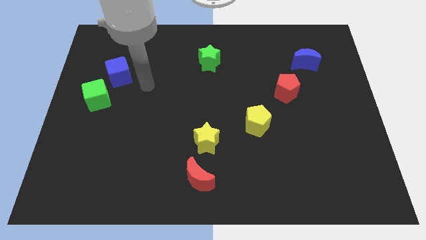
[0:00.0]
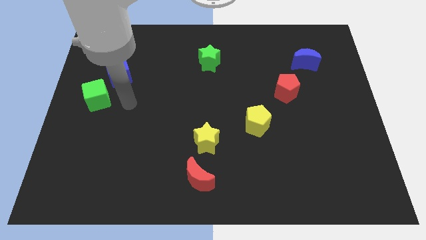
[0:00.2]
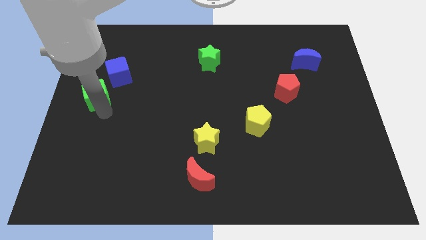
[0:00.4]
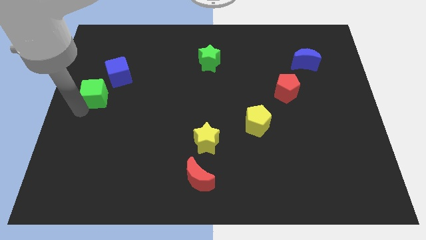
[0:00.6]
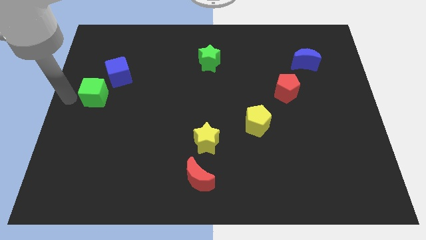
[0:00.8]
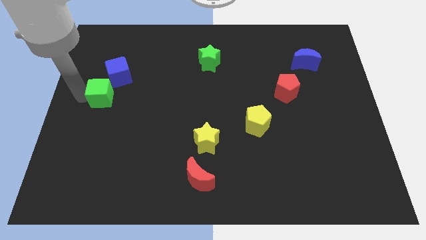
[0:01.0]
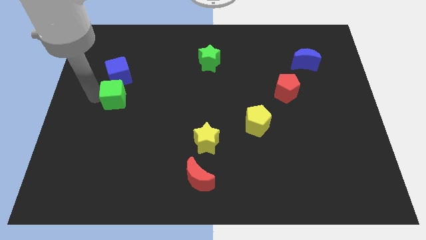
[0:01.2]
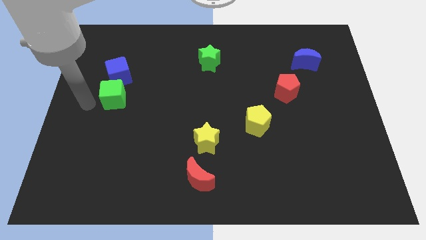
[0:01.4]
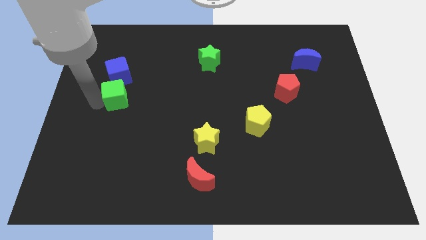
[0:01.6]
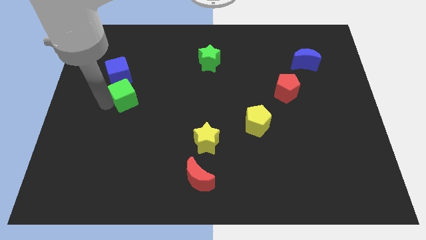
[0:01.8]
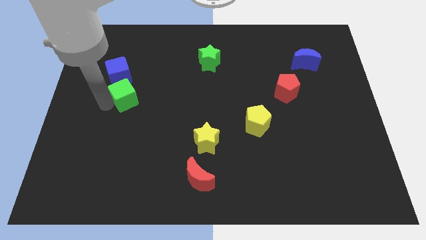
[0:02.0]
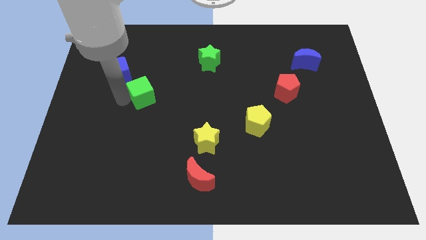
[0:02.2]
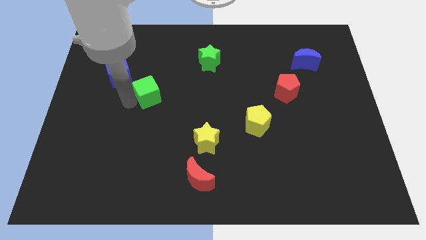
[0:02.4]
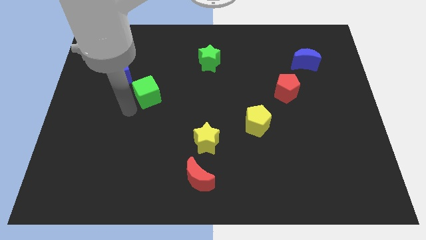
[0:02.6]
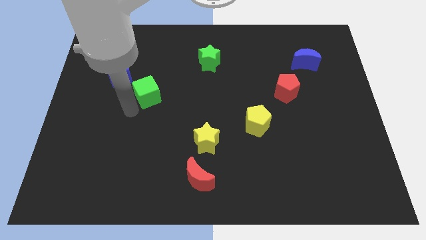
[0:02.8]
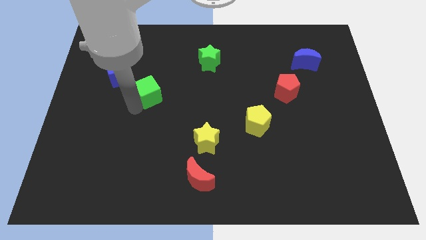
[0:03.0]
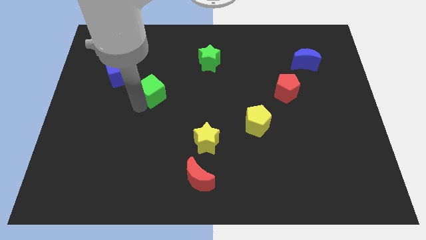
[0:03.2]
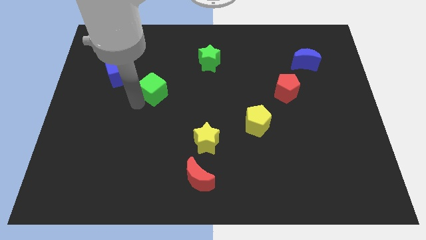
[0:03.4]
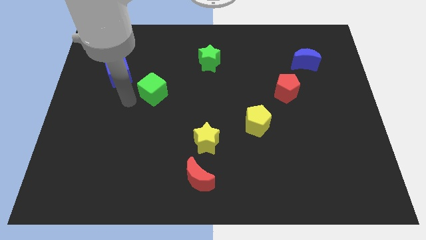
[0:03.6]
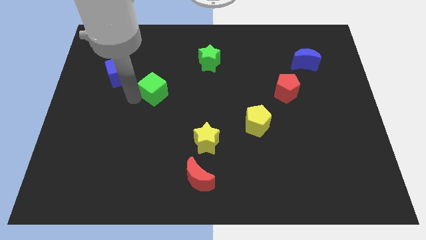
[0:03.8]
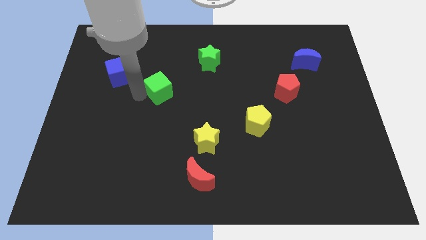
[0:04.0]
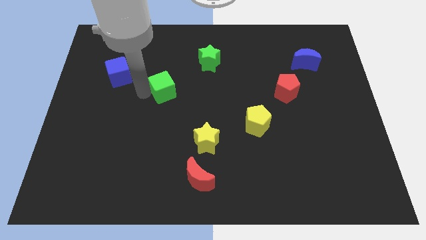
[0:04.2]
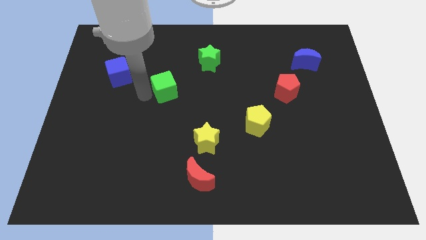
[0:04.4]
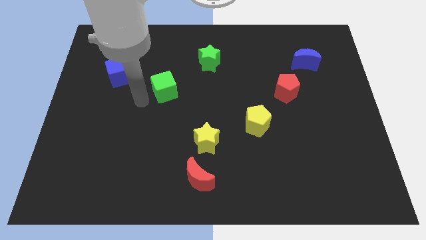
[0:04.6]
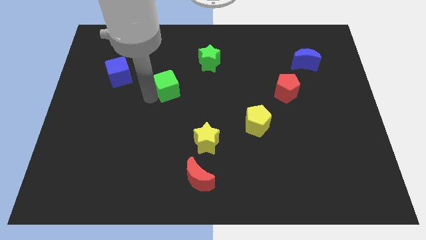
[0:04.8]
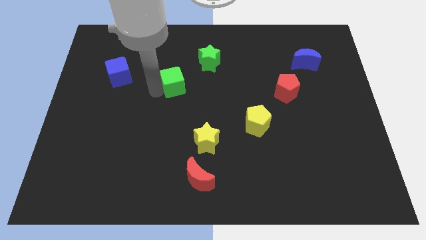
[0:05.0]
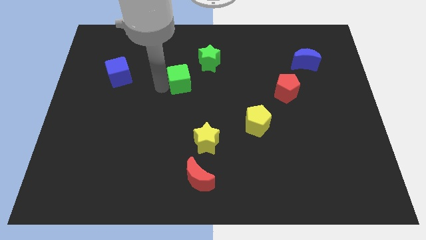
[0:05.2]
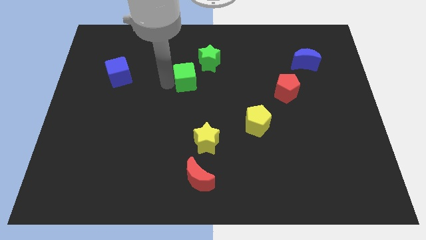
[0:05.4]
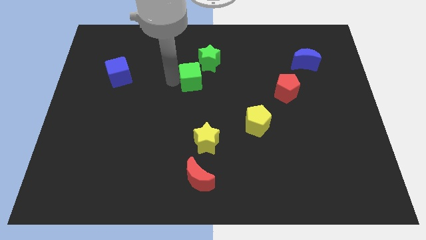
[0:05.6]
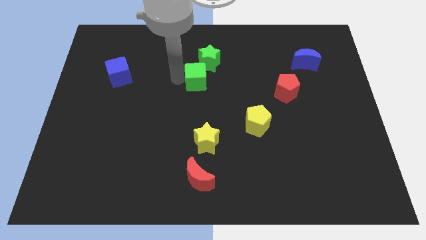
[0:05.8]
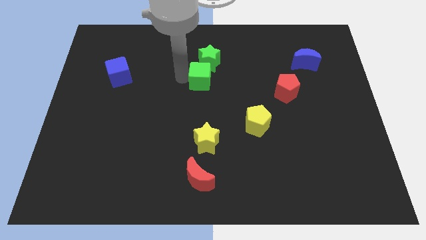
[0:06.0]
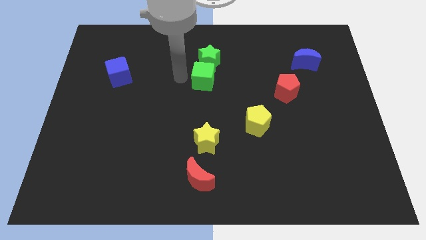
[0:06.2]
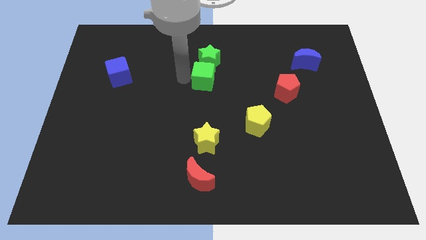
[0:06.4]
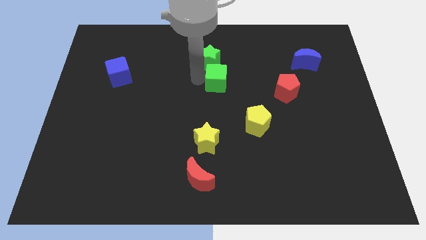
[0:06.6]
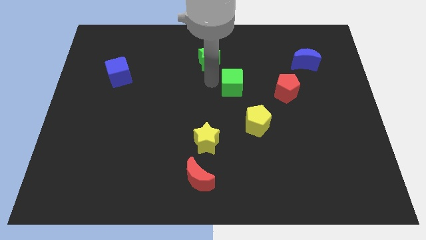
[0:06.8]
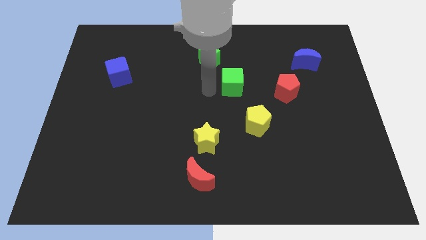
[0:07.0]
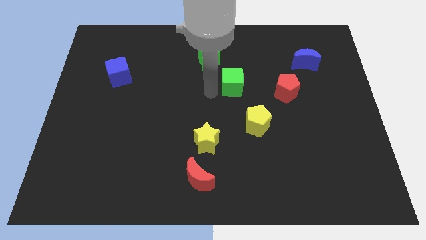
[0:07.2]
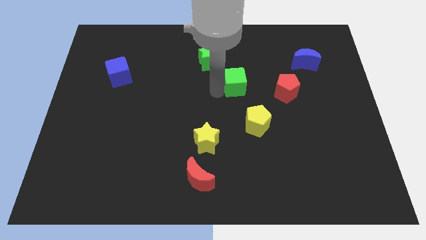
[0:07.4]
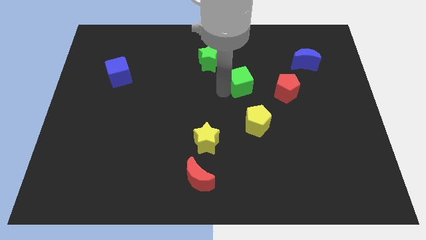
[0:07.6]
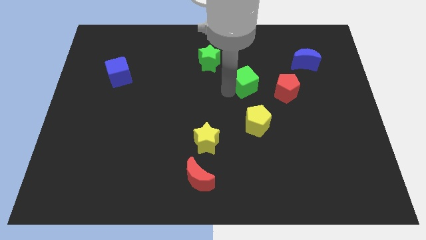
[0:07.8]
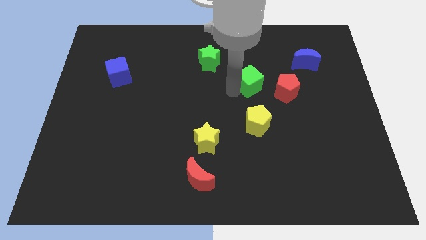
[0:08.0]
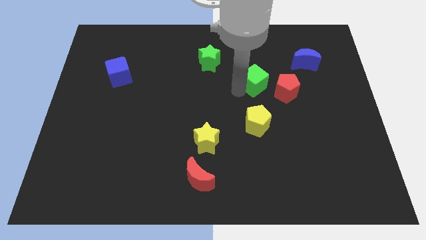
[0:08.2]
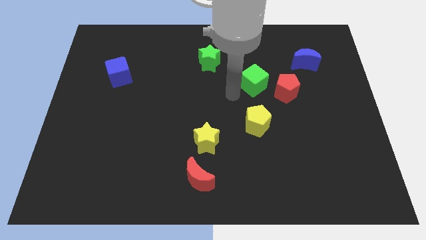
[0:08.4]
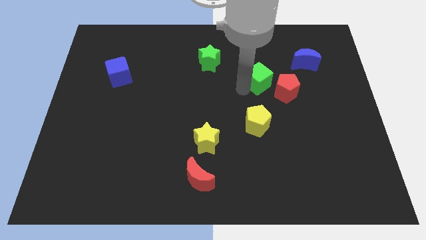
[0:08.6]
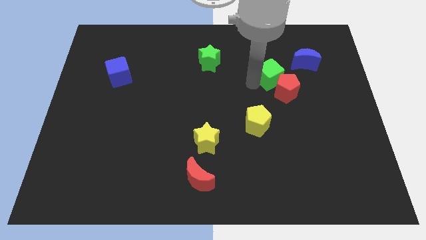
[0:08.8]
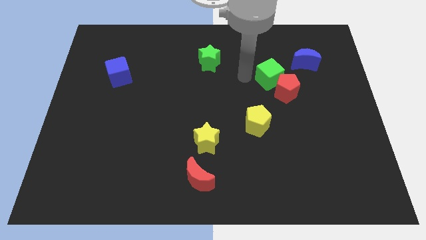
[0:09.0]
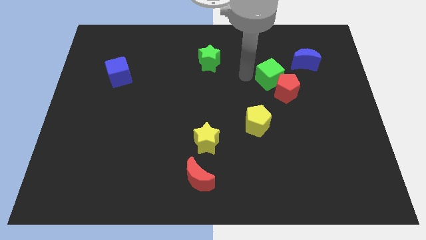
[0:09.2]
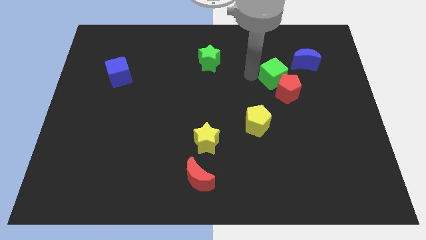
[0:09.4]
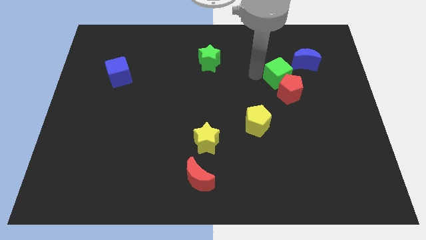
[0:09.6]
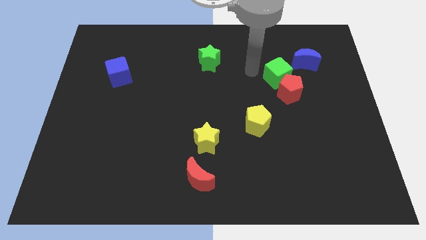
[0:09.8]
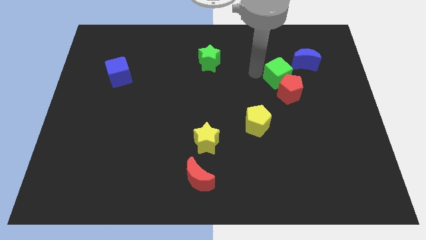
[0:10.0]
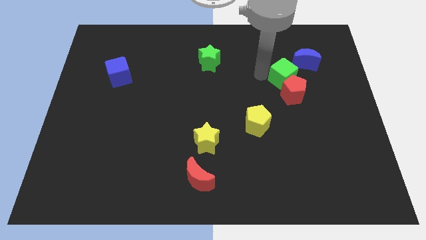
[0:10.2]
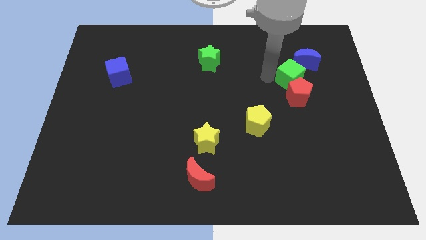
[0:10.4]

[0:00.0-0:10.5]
push the green cube to the bottom of the blue moon

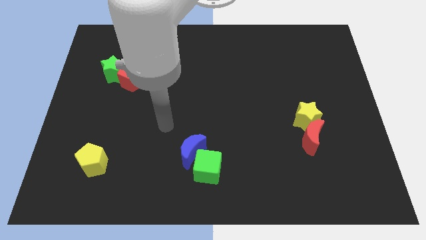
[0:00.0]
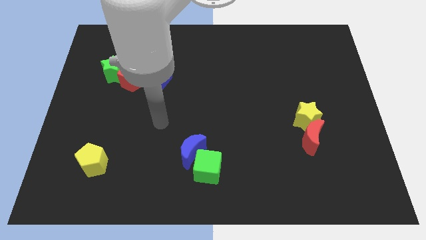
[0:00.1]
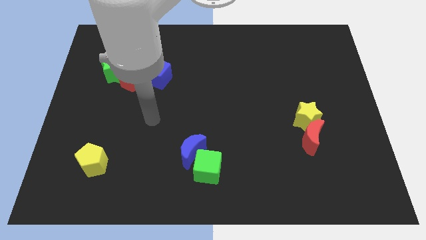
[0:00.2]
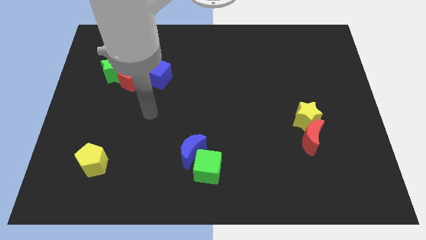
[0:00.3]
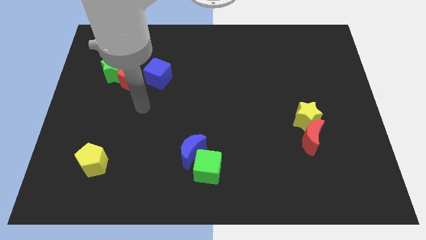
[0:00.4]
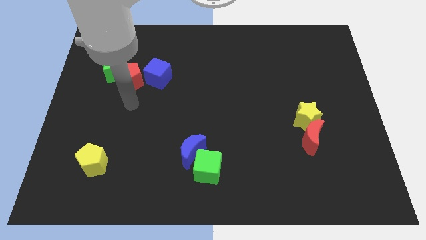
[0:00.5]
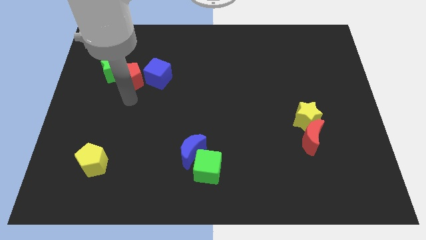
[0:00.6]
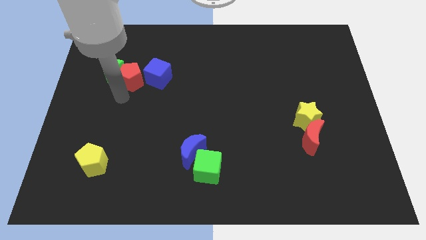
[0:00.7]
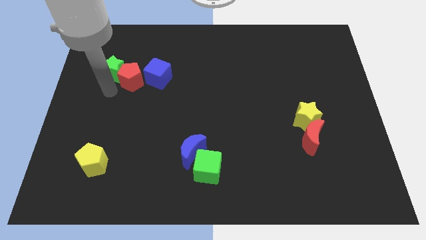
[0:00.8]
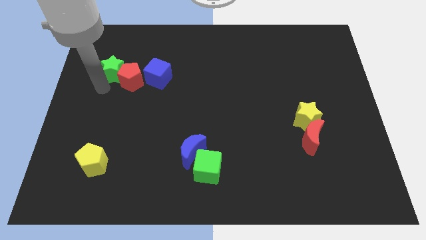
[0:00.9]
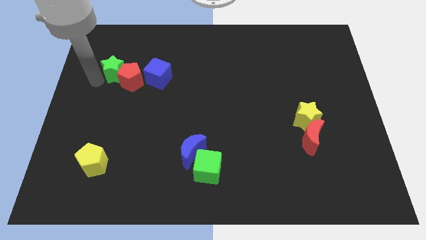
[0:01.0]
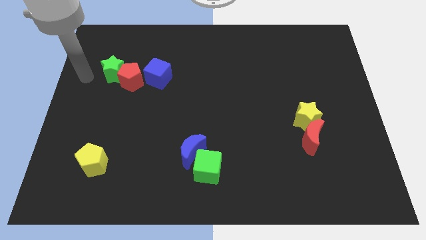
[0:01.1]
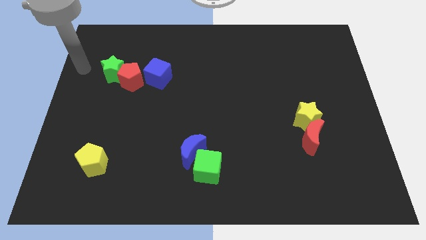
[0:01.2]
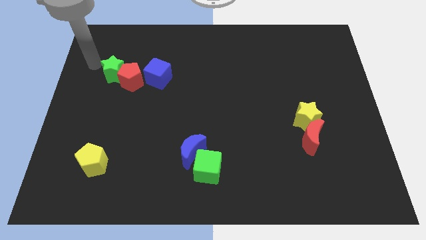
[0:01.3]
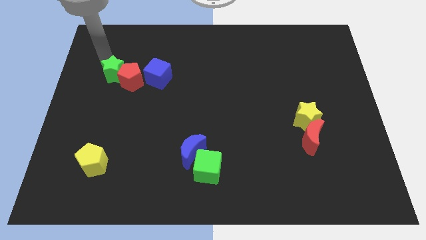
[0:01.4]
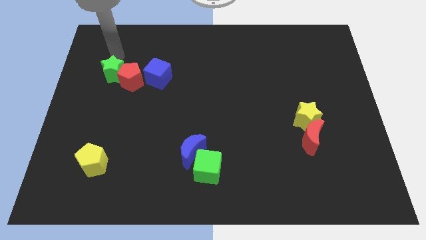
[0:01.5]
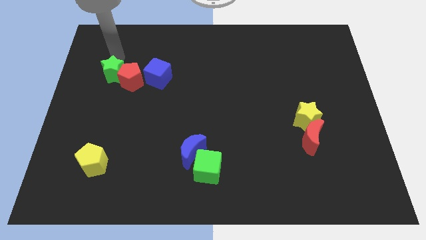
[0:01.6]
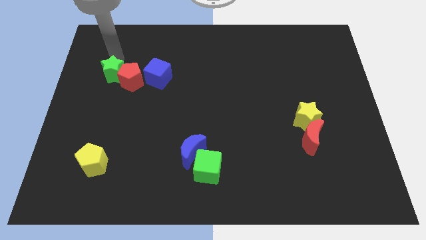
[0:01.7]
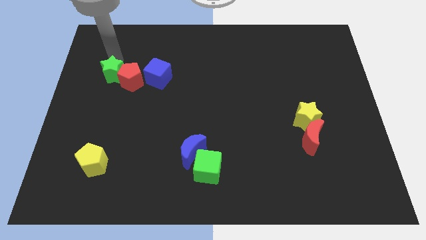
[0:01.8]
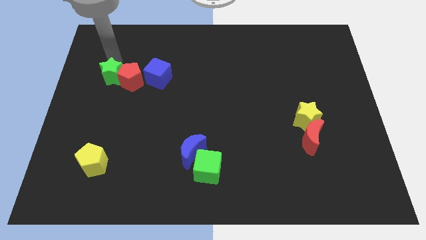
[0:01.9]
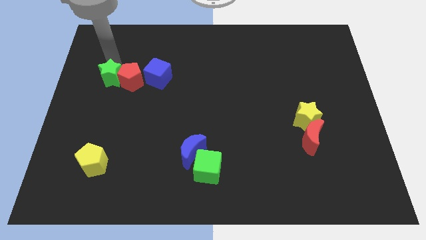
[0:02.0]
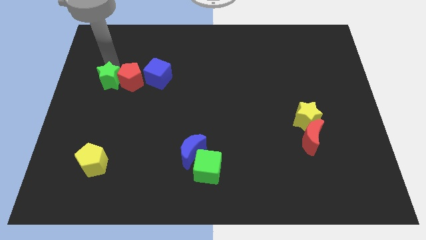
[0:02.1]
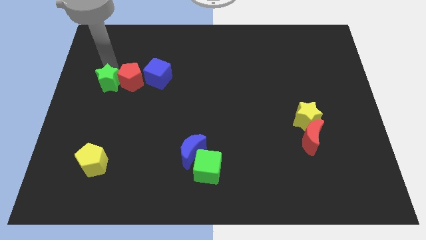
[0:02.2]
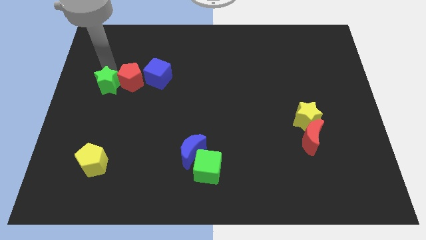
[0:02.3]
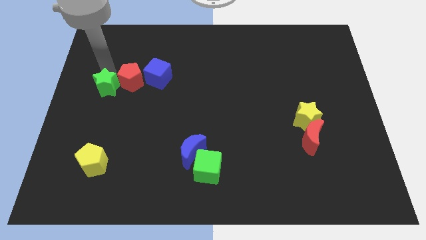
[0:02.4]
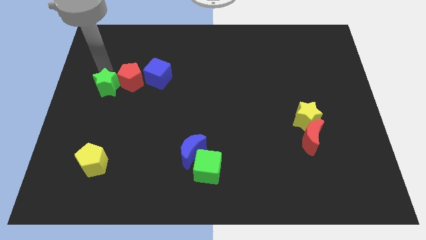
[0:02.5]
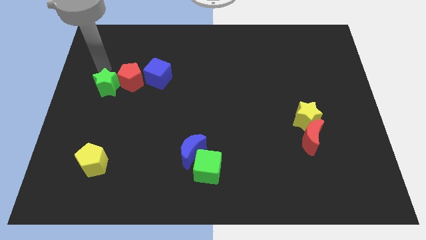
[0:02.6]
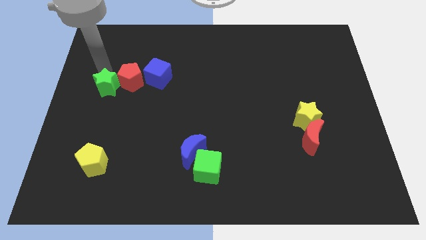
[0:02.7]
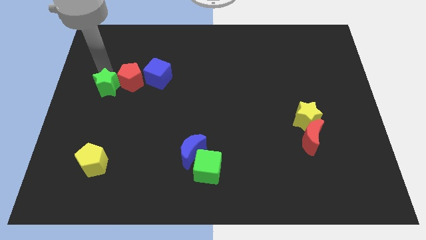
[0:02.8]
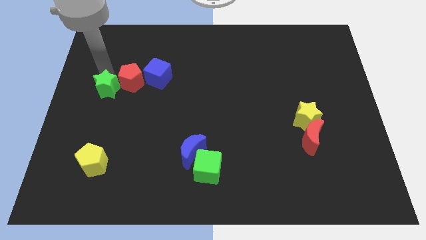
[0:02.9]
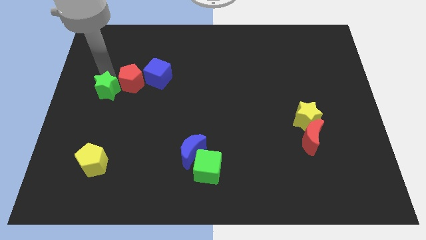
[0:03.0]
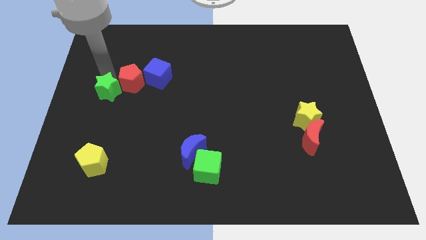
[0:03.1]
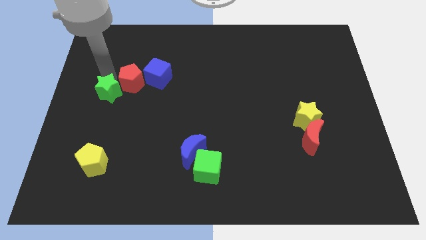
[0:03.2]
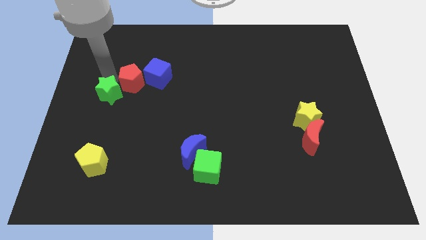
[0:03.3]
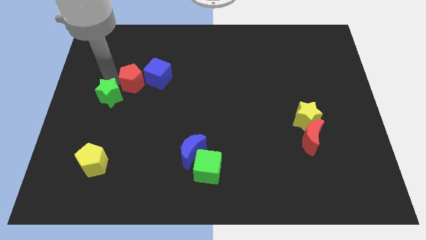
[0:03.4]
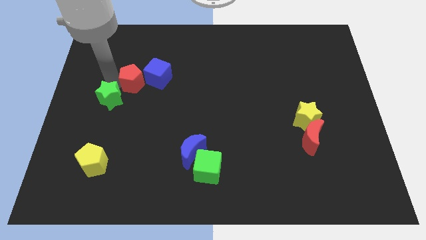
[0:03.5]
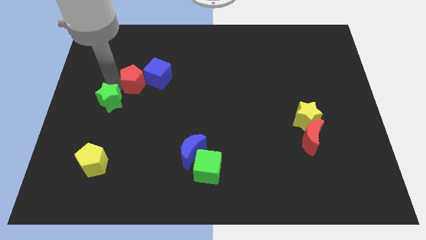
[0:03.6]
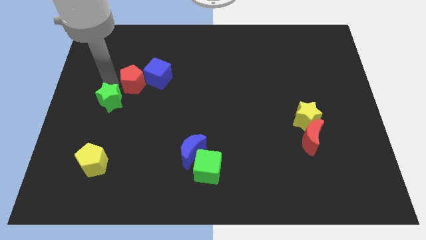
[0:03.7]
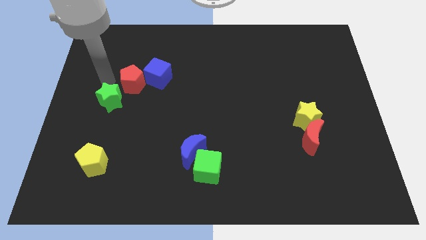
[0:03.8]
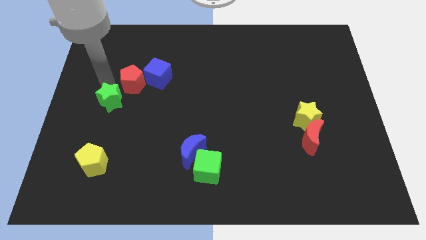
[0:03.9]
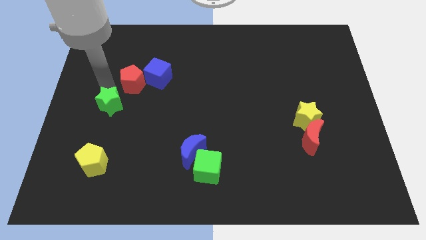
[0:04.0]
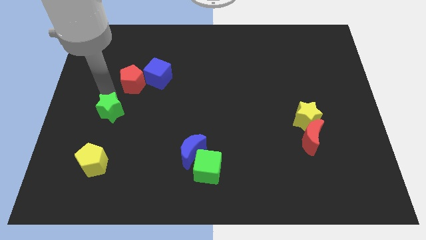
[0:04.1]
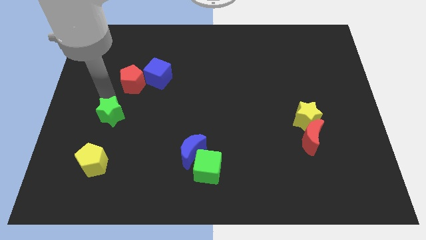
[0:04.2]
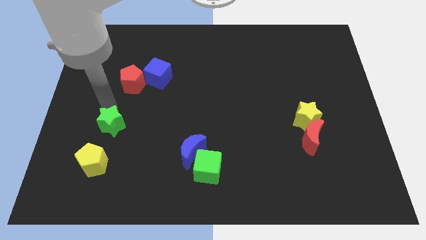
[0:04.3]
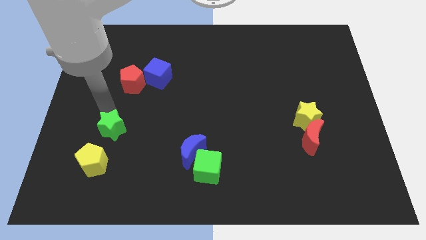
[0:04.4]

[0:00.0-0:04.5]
move the green star diagonally up and to the right of the yellow pentagon
